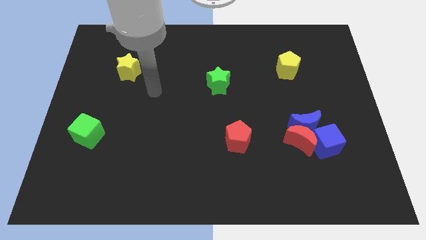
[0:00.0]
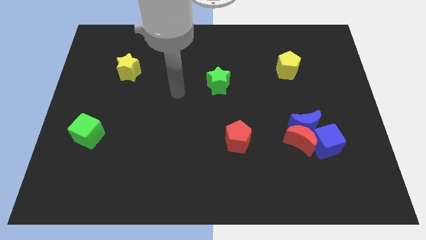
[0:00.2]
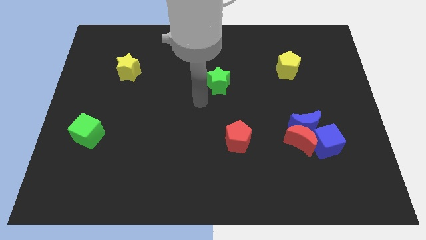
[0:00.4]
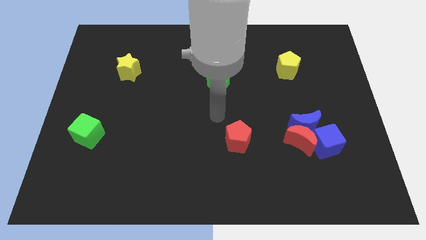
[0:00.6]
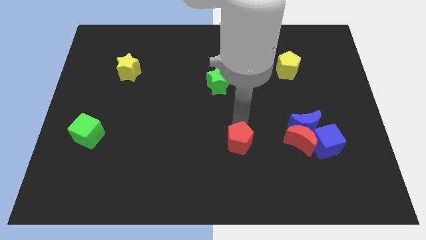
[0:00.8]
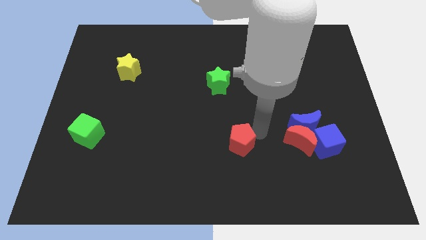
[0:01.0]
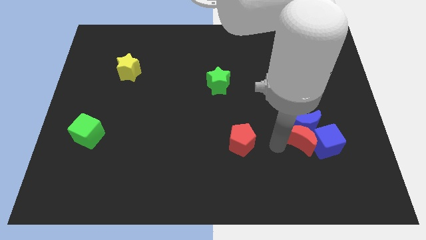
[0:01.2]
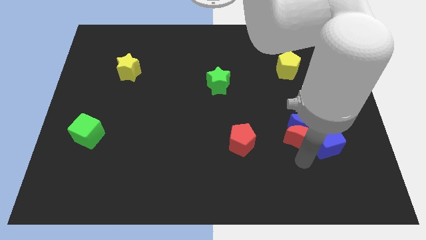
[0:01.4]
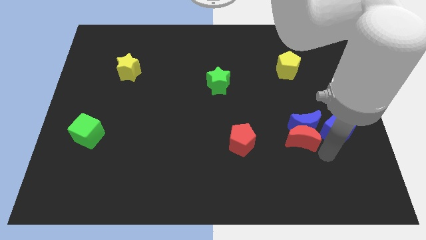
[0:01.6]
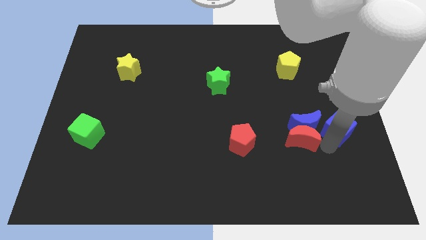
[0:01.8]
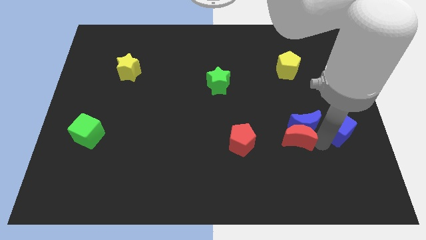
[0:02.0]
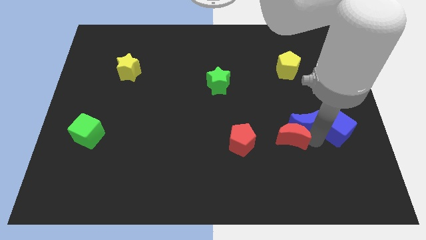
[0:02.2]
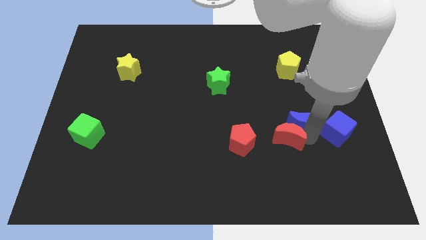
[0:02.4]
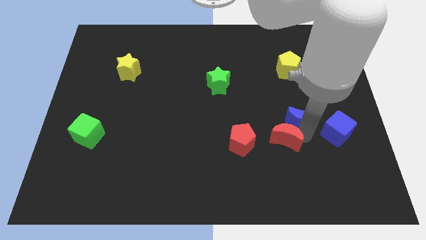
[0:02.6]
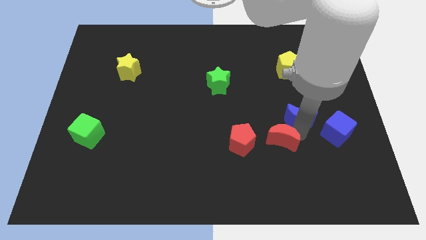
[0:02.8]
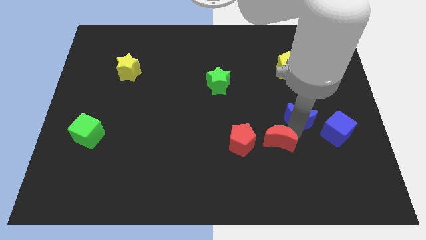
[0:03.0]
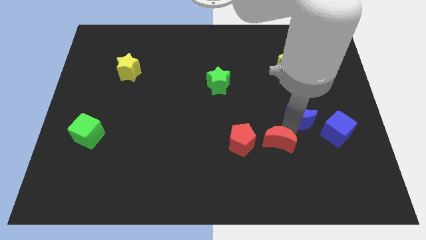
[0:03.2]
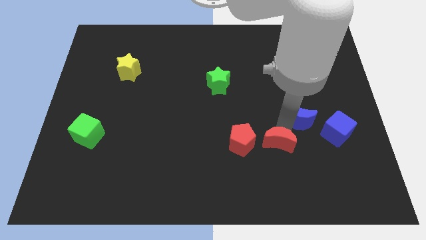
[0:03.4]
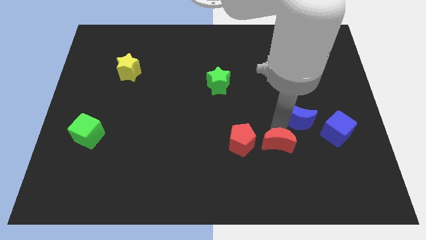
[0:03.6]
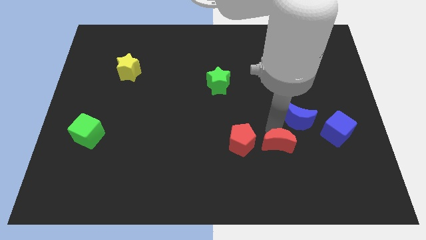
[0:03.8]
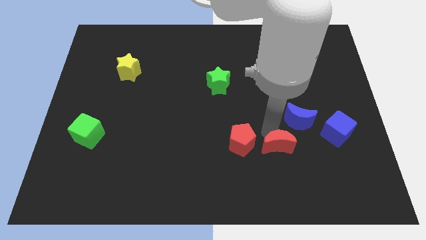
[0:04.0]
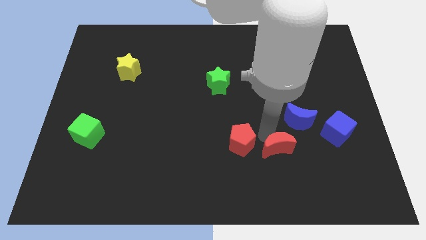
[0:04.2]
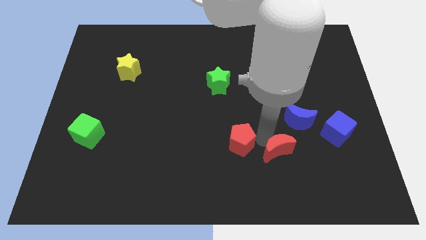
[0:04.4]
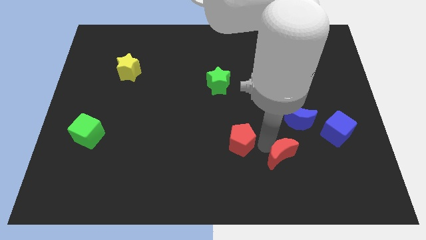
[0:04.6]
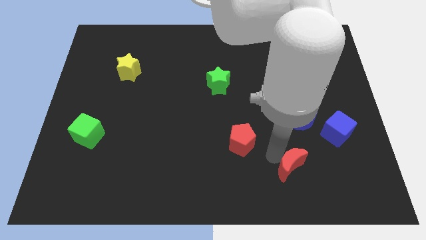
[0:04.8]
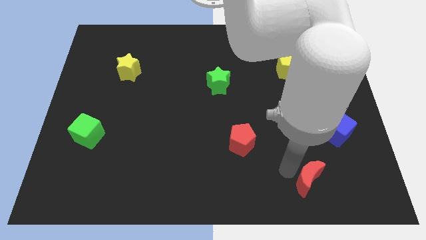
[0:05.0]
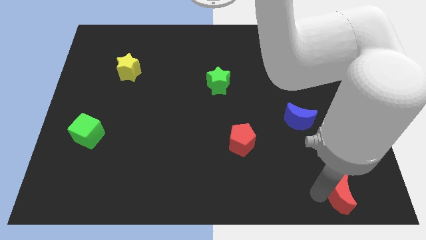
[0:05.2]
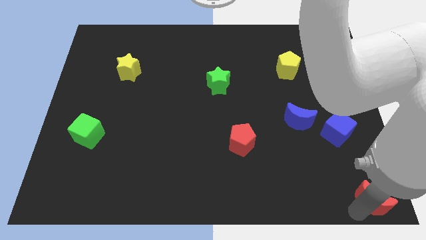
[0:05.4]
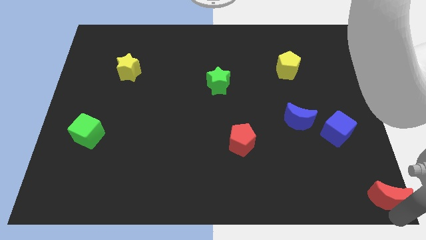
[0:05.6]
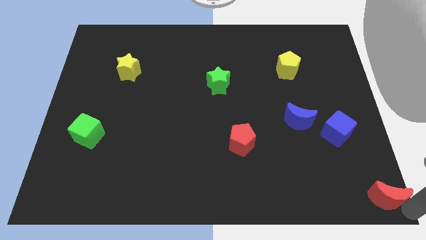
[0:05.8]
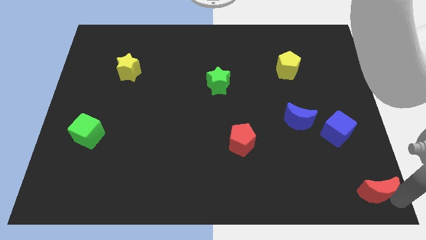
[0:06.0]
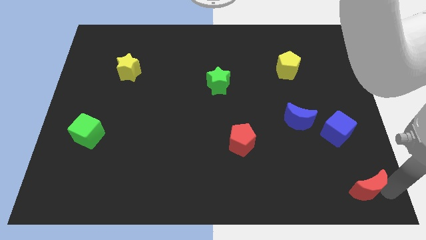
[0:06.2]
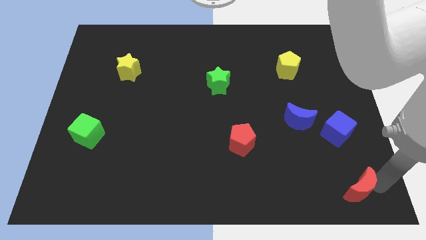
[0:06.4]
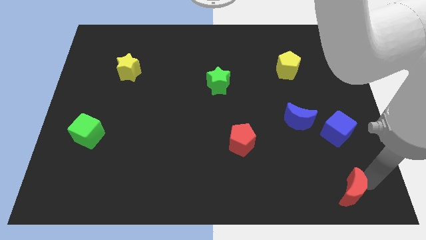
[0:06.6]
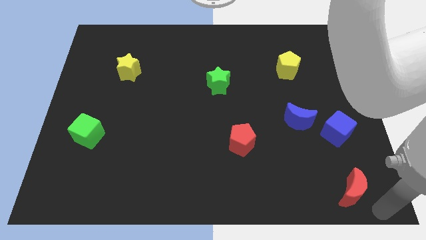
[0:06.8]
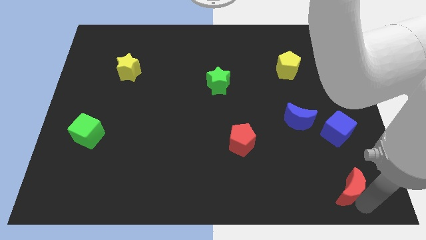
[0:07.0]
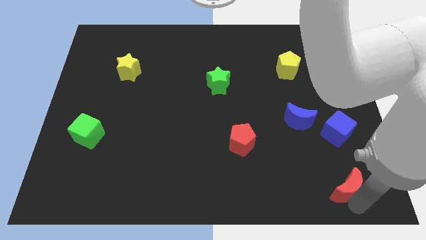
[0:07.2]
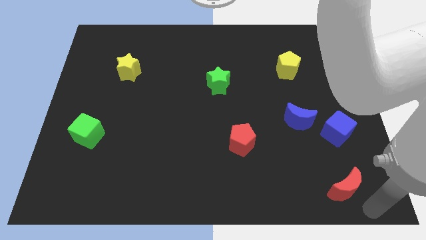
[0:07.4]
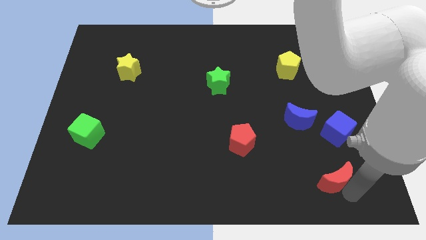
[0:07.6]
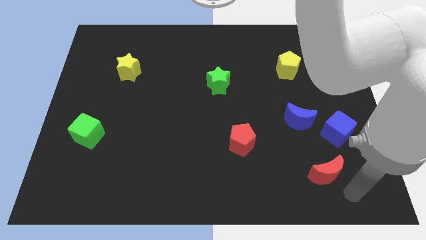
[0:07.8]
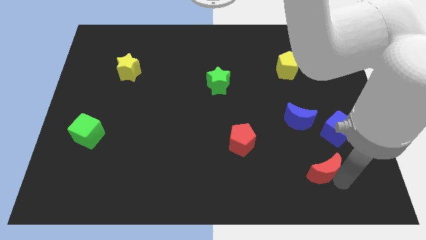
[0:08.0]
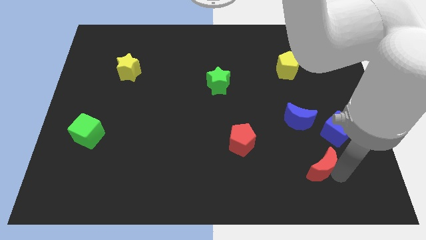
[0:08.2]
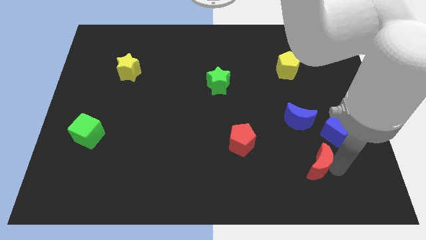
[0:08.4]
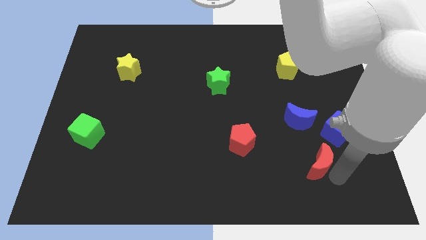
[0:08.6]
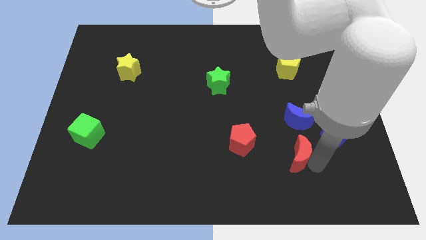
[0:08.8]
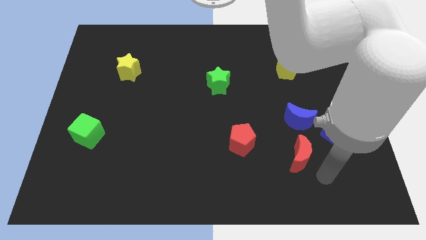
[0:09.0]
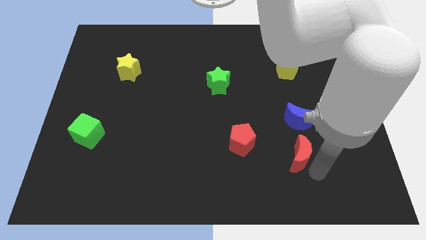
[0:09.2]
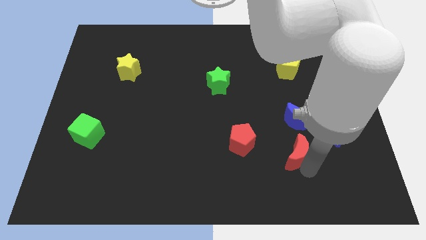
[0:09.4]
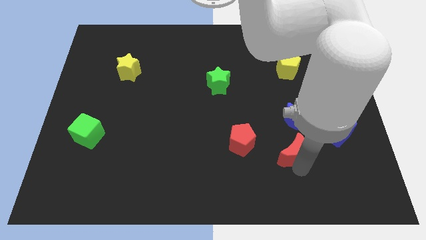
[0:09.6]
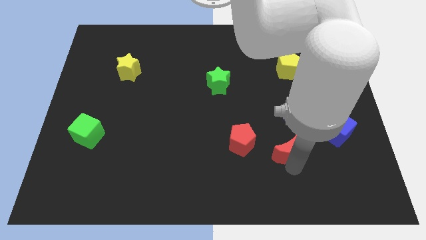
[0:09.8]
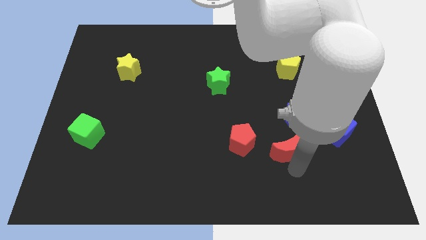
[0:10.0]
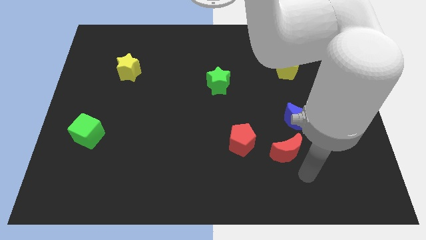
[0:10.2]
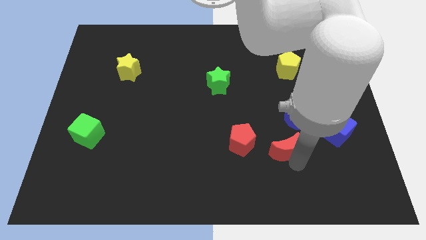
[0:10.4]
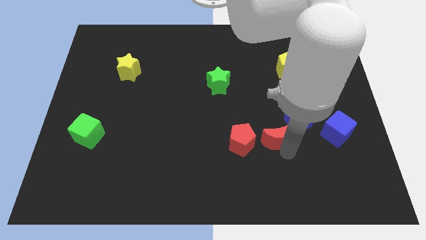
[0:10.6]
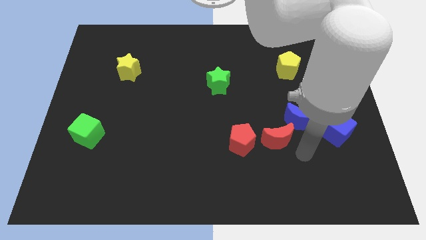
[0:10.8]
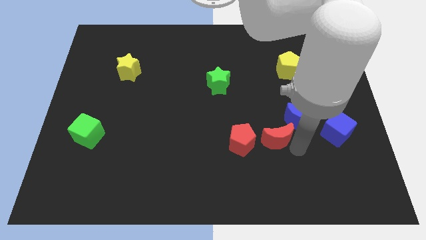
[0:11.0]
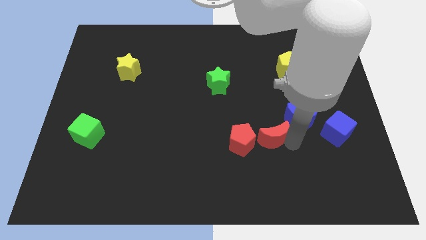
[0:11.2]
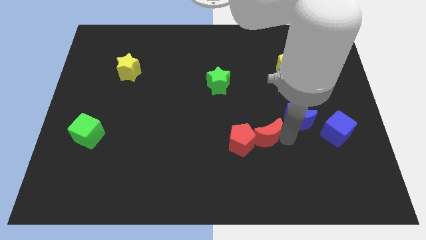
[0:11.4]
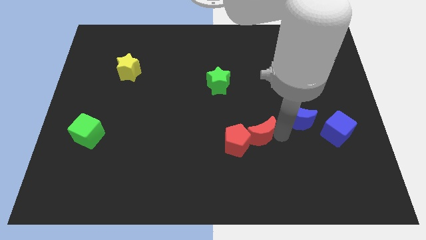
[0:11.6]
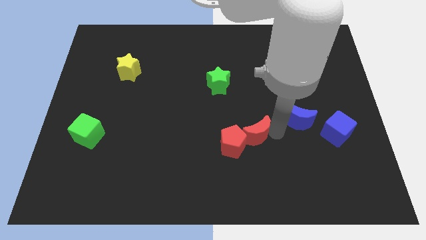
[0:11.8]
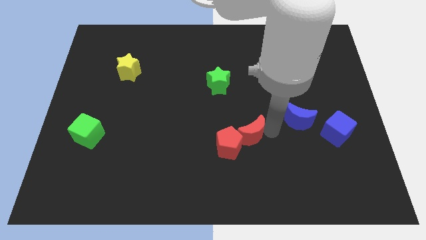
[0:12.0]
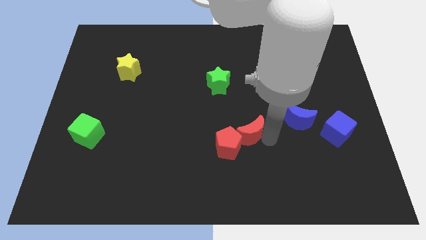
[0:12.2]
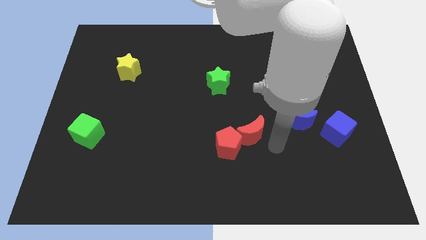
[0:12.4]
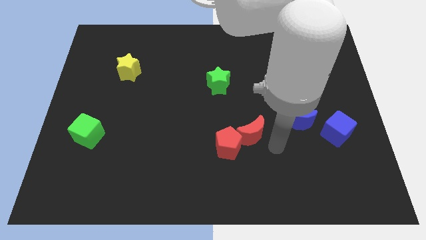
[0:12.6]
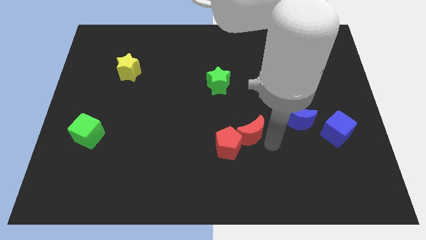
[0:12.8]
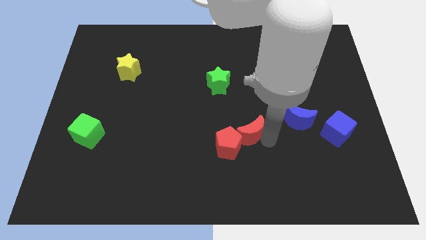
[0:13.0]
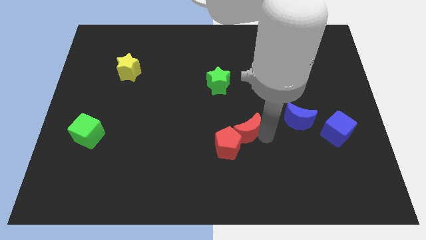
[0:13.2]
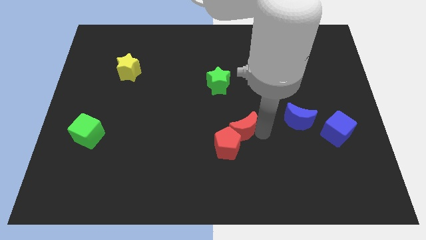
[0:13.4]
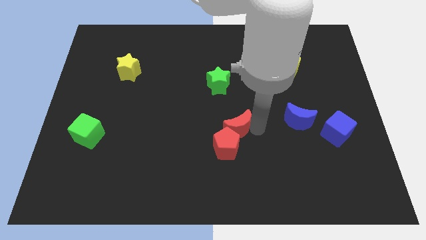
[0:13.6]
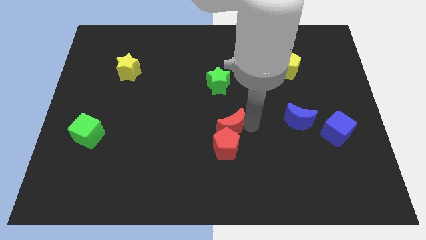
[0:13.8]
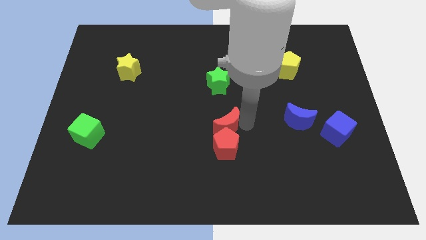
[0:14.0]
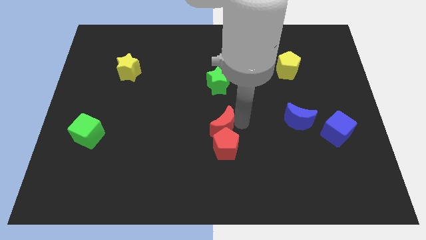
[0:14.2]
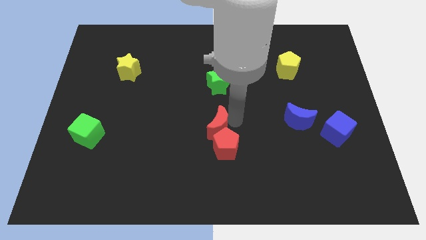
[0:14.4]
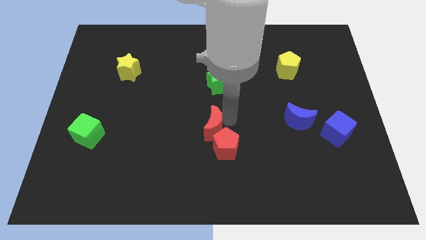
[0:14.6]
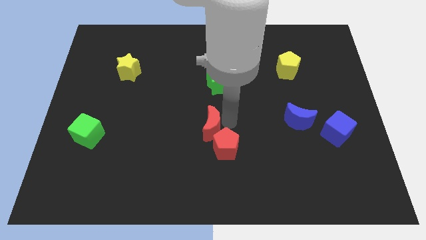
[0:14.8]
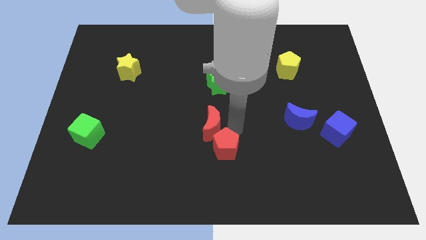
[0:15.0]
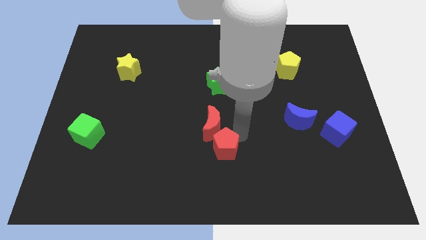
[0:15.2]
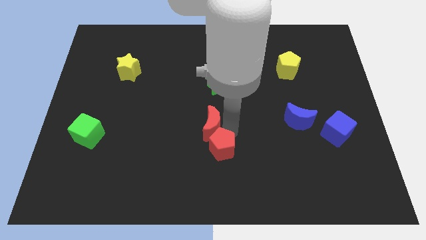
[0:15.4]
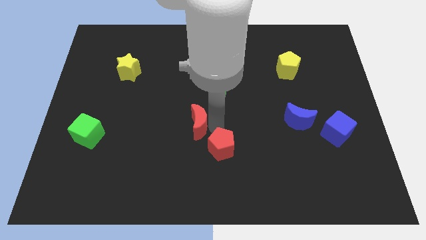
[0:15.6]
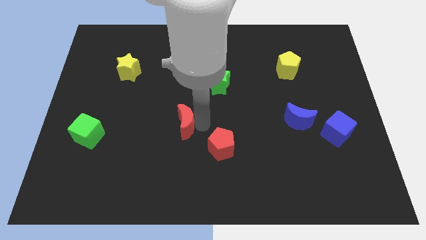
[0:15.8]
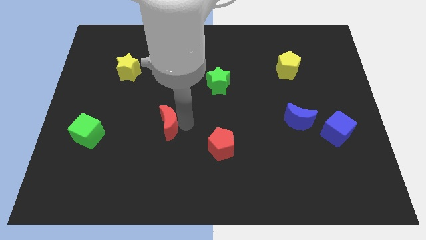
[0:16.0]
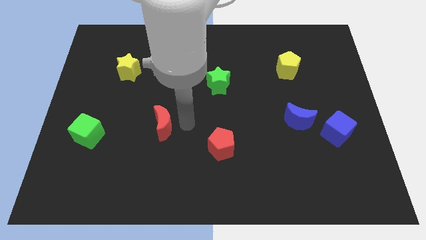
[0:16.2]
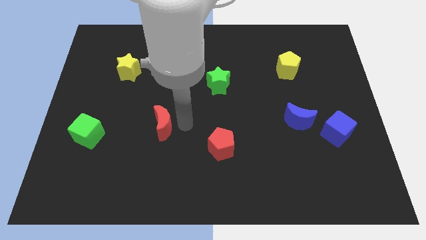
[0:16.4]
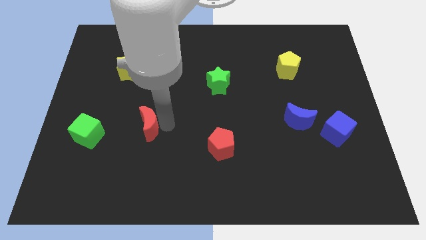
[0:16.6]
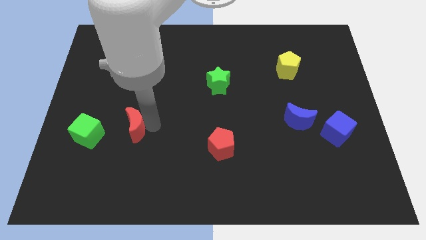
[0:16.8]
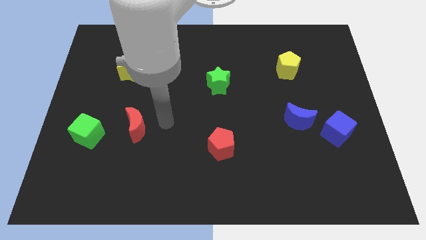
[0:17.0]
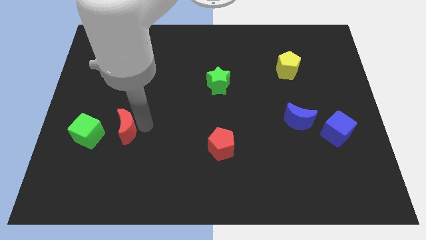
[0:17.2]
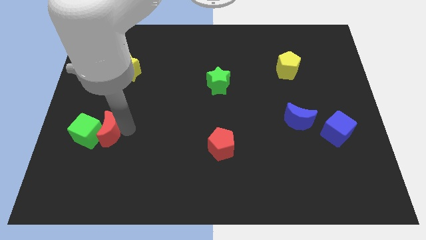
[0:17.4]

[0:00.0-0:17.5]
put the red moon close to the green cube
